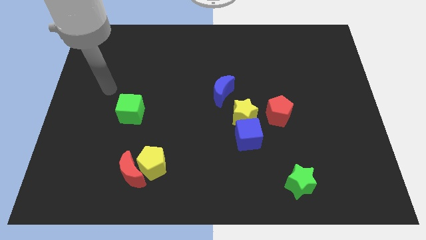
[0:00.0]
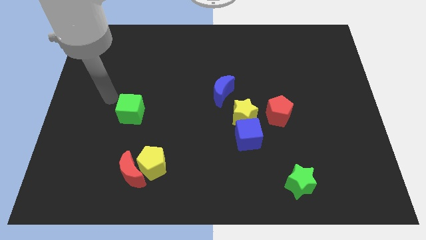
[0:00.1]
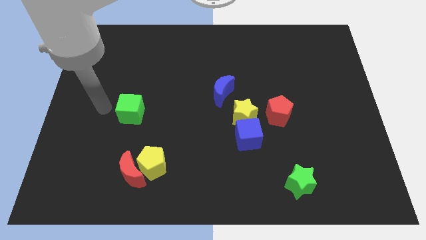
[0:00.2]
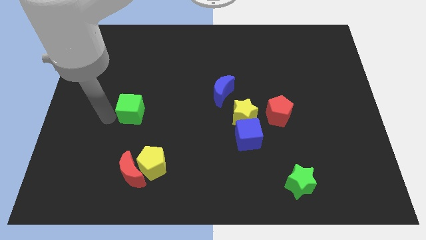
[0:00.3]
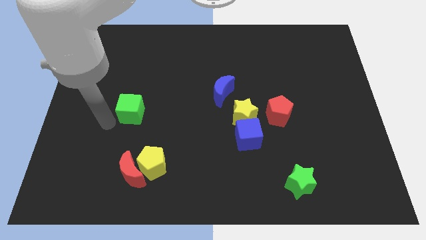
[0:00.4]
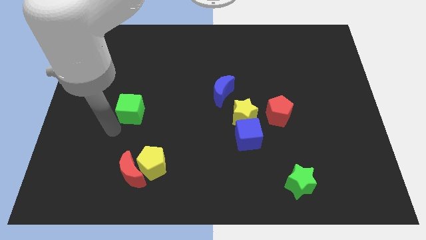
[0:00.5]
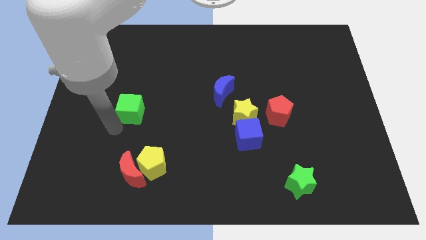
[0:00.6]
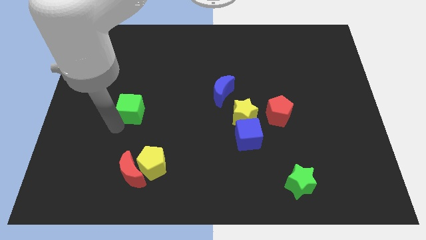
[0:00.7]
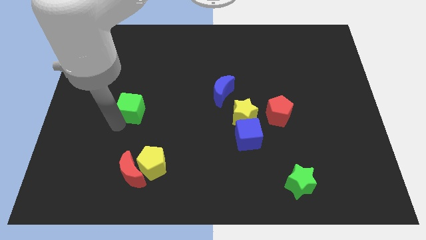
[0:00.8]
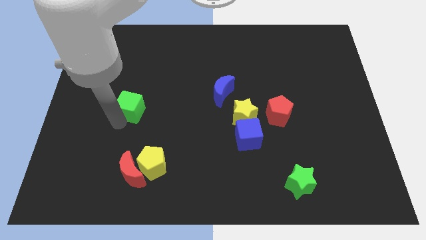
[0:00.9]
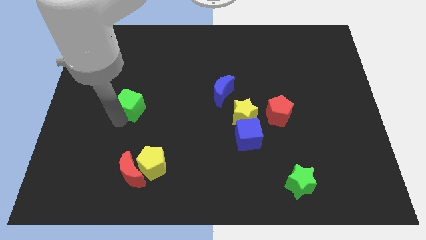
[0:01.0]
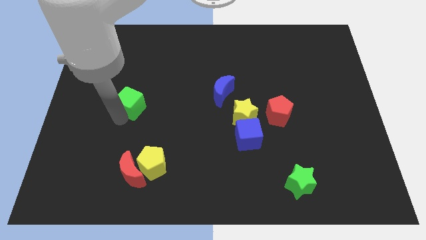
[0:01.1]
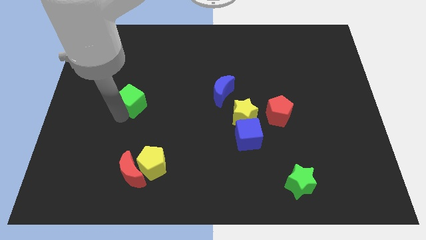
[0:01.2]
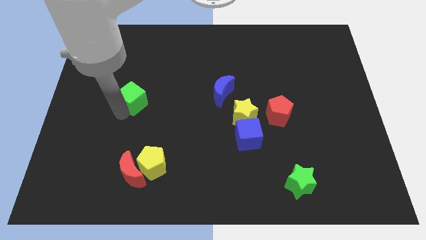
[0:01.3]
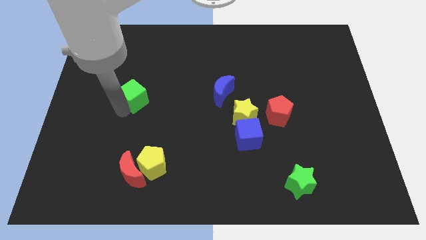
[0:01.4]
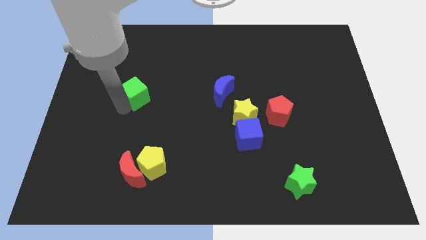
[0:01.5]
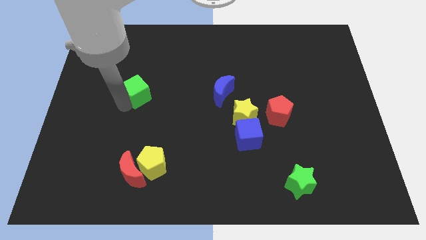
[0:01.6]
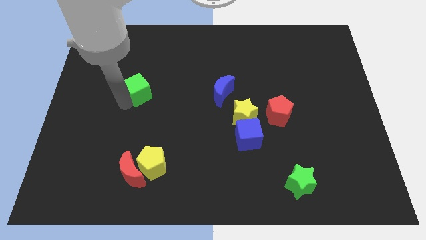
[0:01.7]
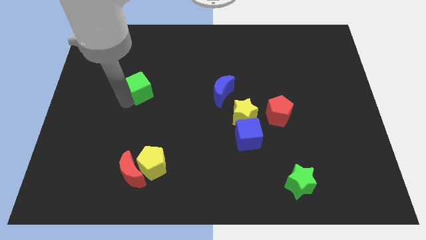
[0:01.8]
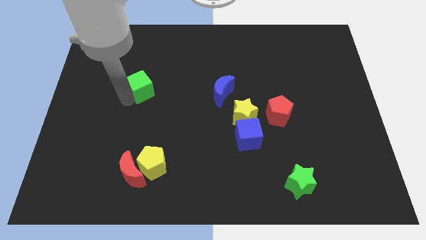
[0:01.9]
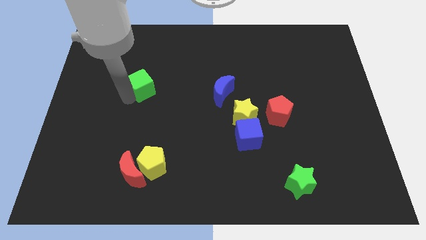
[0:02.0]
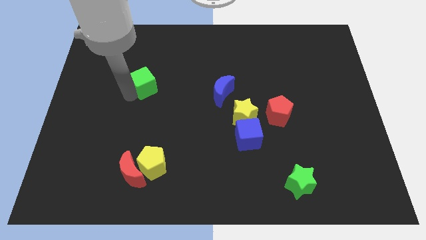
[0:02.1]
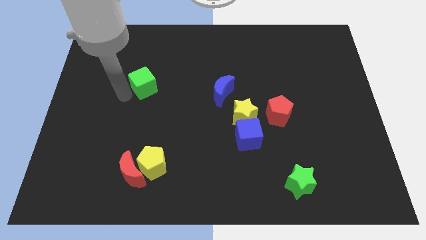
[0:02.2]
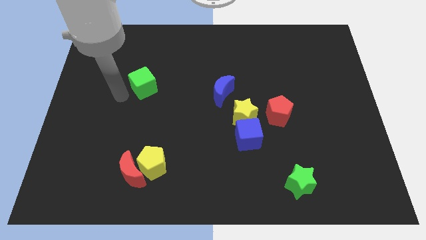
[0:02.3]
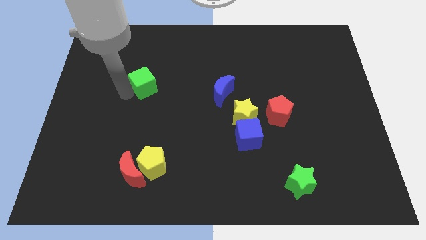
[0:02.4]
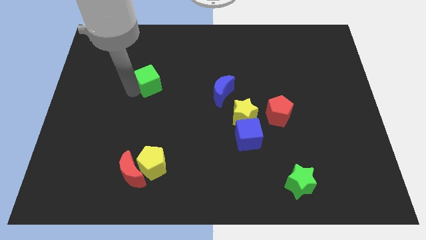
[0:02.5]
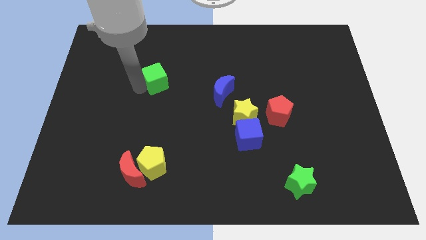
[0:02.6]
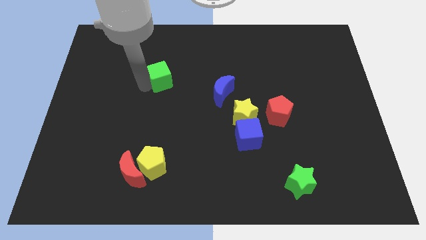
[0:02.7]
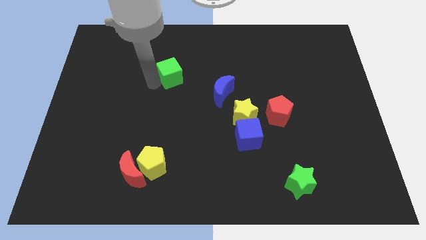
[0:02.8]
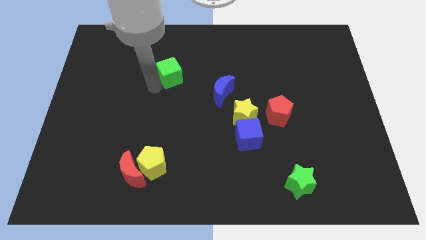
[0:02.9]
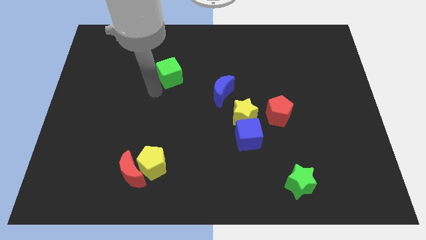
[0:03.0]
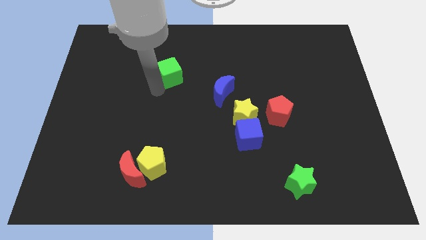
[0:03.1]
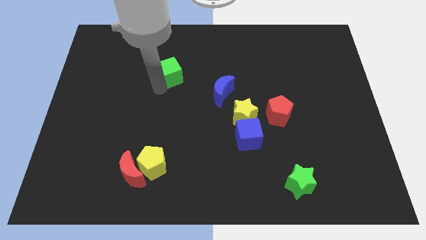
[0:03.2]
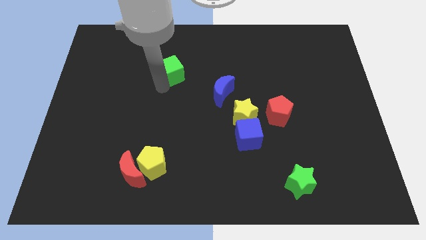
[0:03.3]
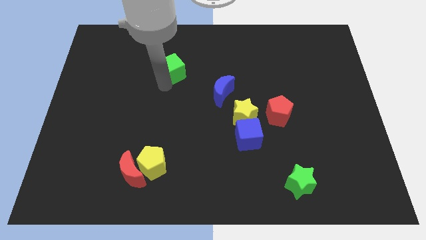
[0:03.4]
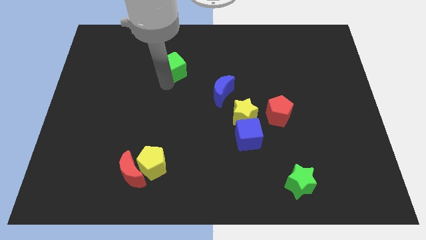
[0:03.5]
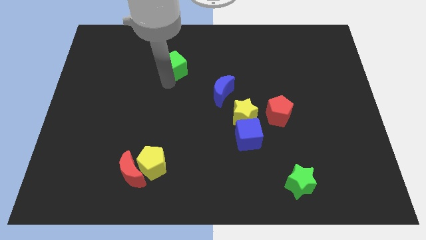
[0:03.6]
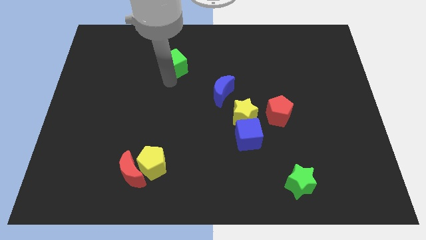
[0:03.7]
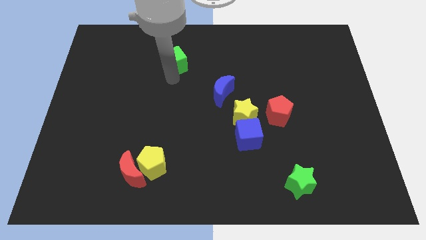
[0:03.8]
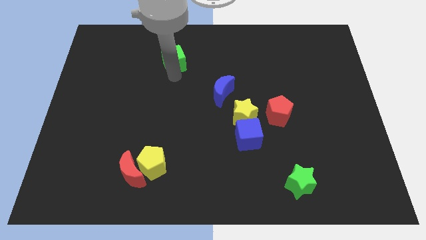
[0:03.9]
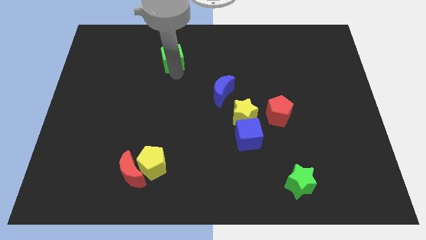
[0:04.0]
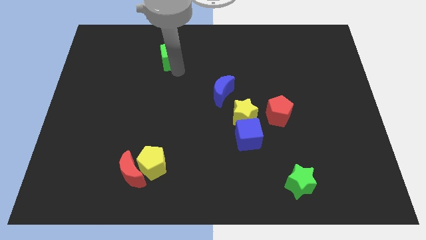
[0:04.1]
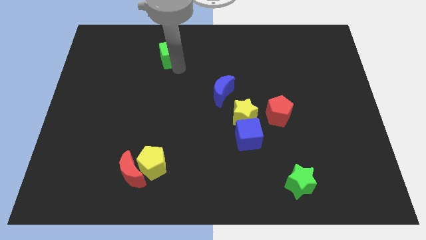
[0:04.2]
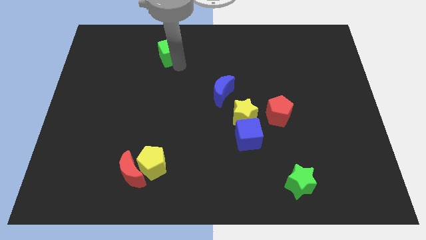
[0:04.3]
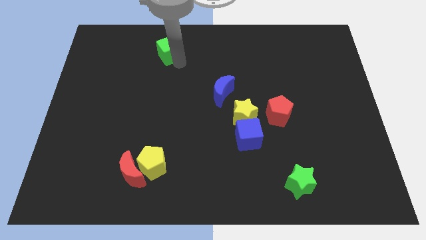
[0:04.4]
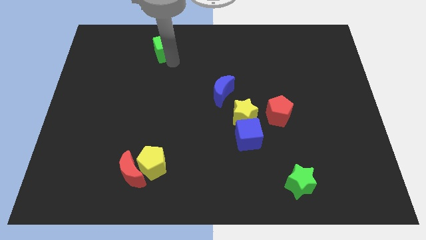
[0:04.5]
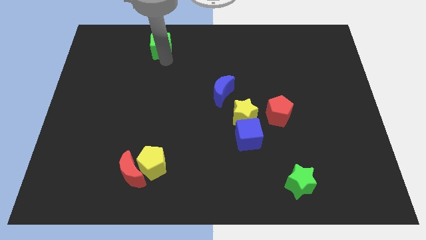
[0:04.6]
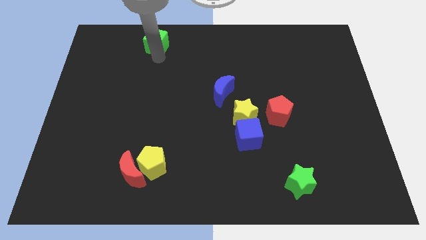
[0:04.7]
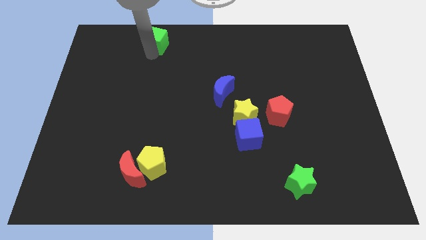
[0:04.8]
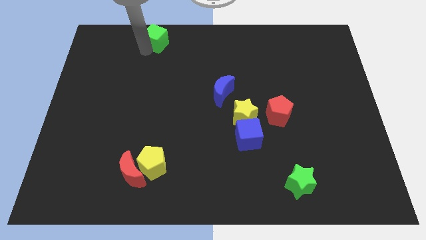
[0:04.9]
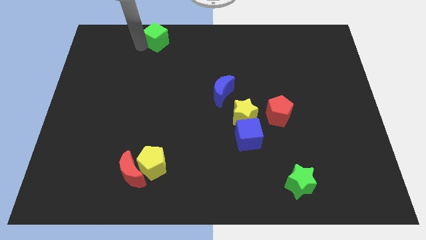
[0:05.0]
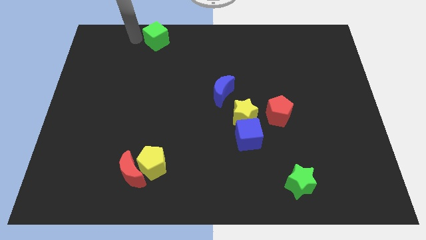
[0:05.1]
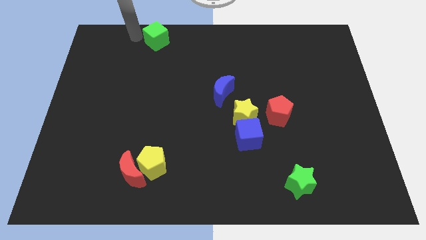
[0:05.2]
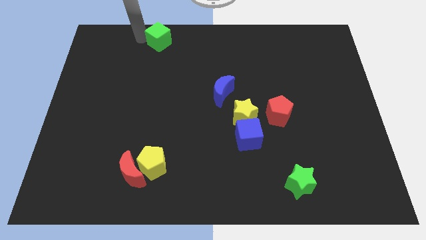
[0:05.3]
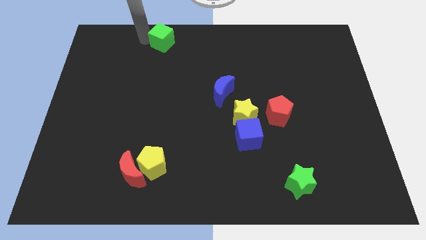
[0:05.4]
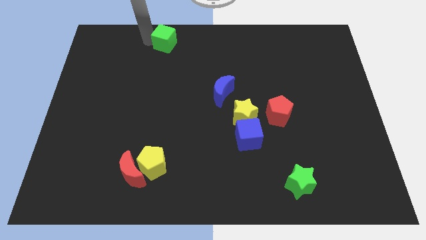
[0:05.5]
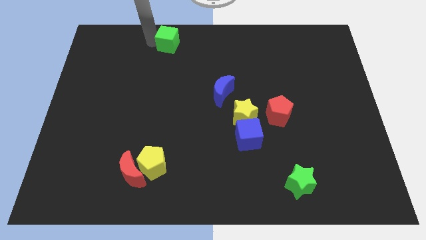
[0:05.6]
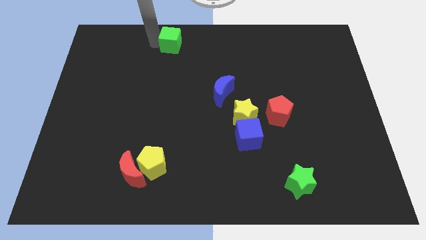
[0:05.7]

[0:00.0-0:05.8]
move the green cube to the top
